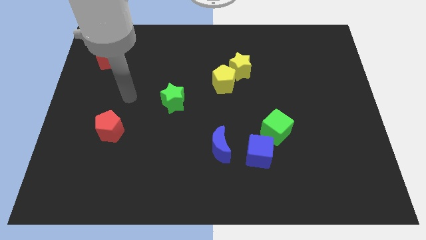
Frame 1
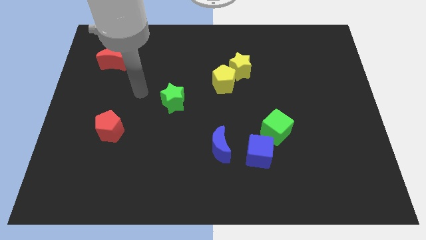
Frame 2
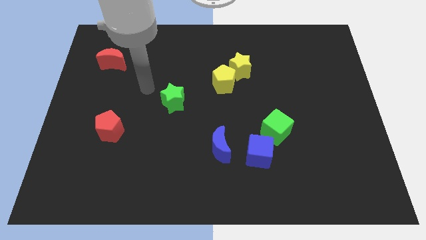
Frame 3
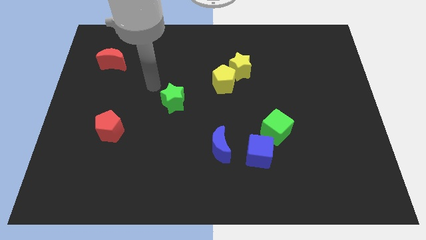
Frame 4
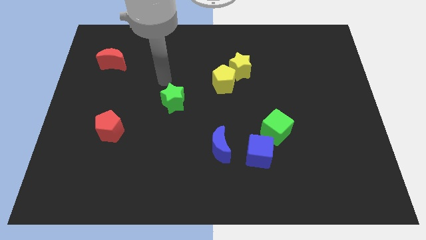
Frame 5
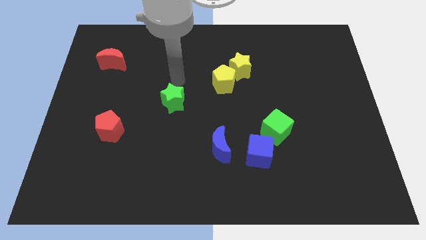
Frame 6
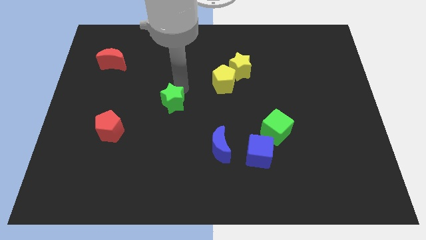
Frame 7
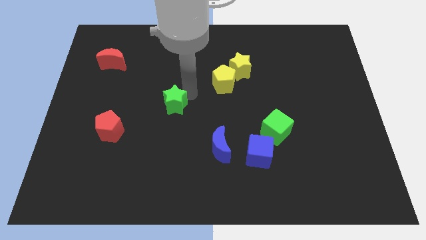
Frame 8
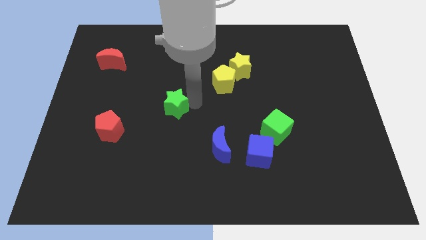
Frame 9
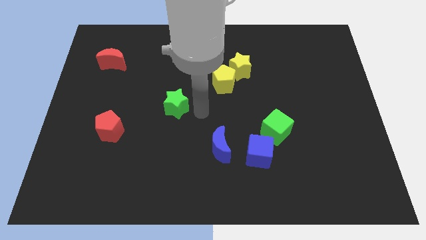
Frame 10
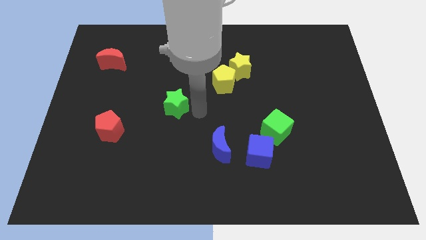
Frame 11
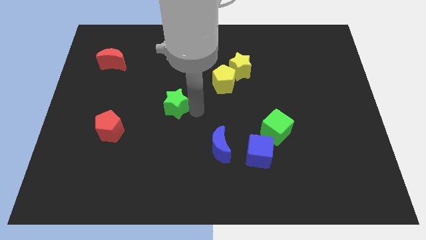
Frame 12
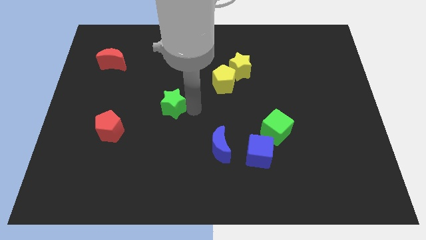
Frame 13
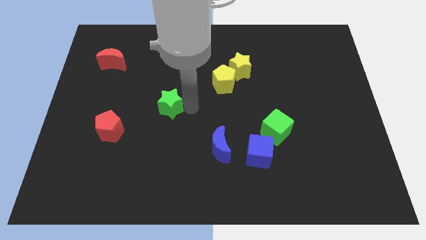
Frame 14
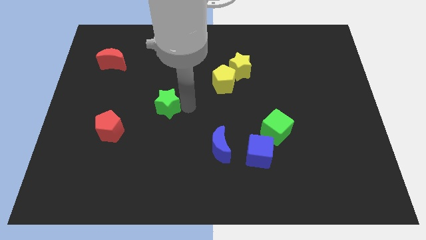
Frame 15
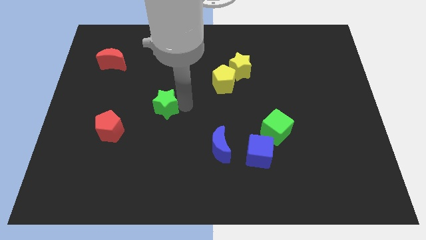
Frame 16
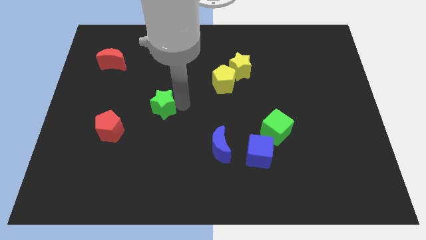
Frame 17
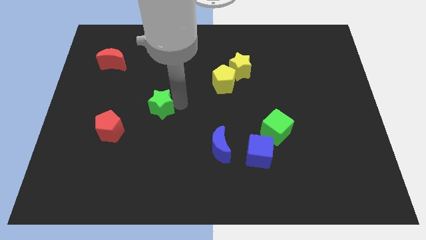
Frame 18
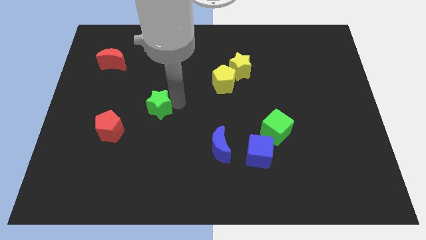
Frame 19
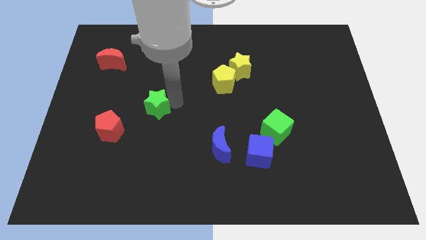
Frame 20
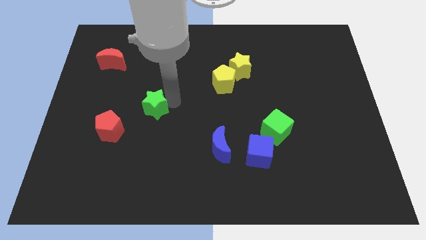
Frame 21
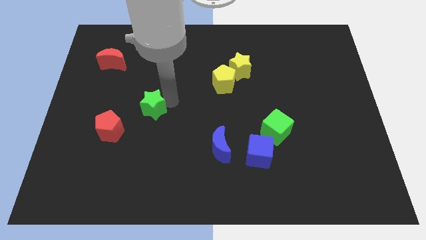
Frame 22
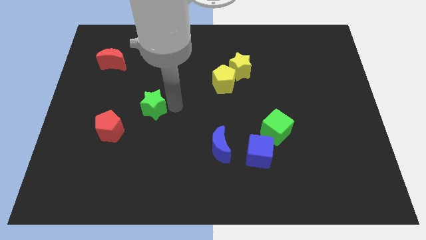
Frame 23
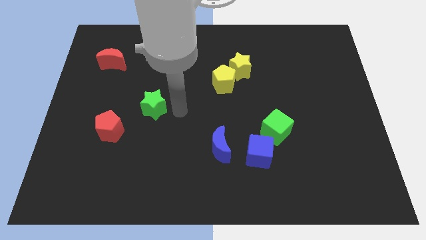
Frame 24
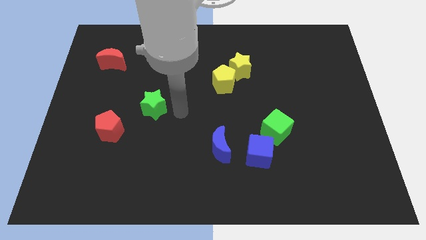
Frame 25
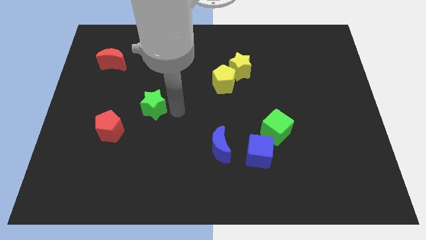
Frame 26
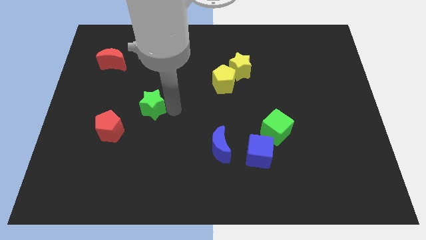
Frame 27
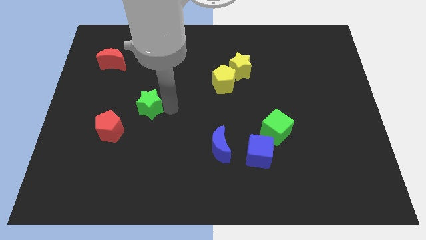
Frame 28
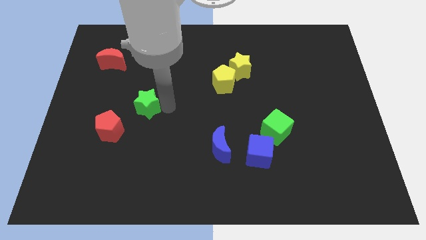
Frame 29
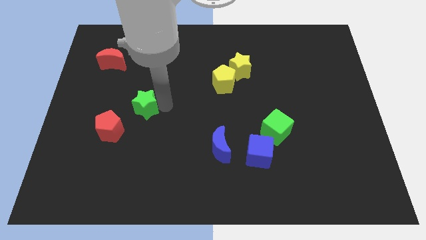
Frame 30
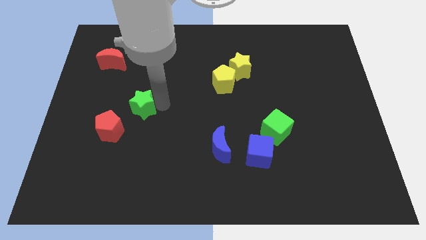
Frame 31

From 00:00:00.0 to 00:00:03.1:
slide the green star left a bit

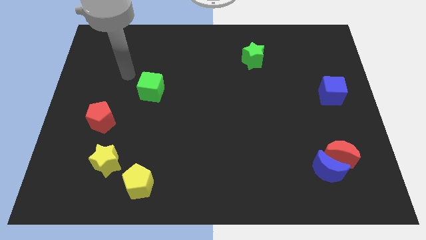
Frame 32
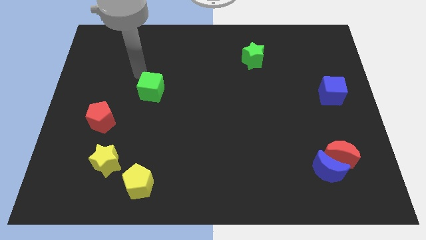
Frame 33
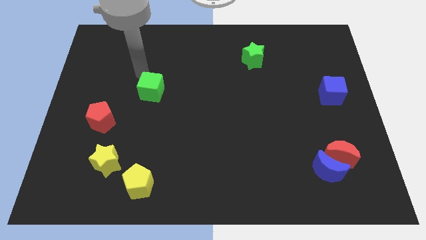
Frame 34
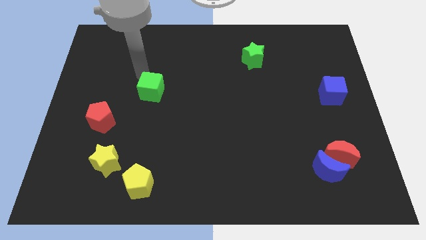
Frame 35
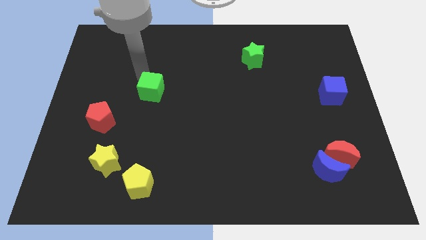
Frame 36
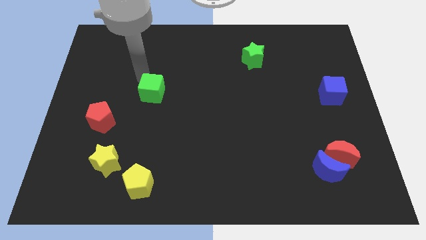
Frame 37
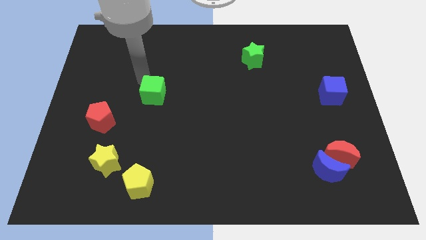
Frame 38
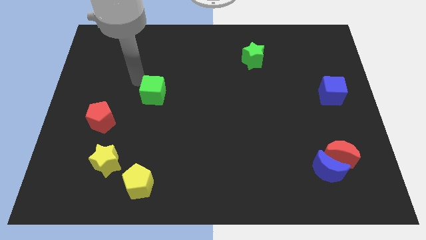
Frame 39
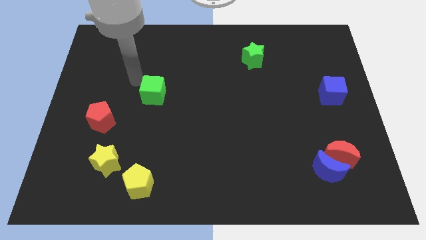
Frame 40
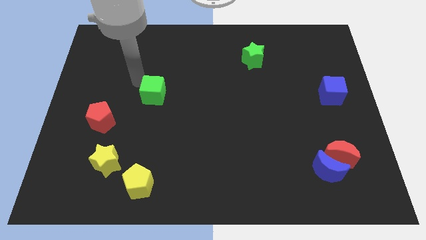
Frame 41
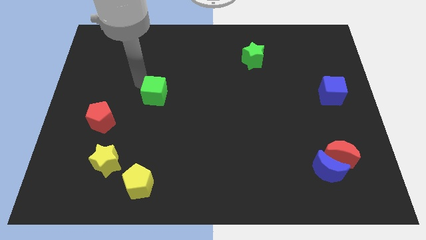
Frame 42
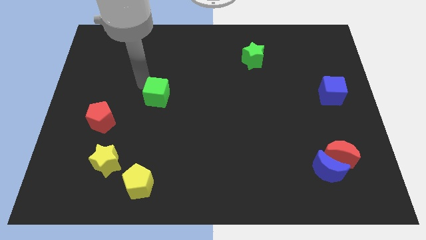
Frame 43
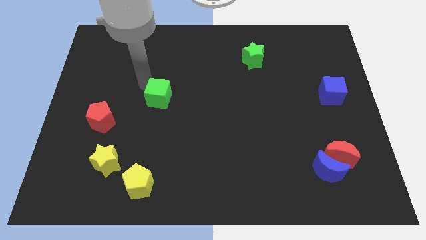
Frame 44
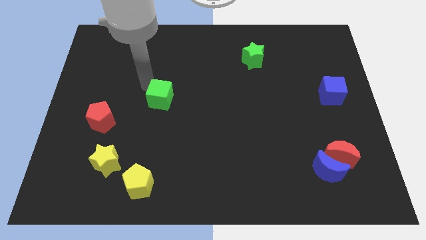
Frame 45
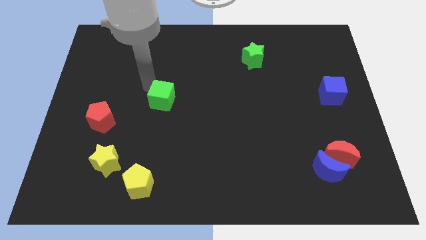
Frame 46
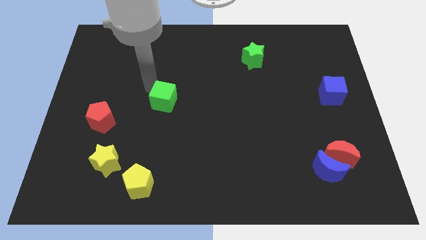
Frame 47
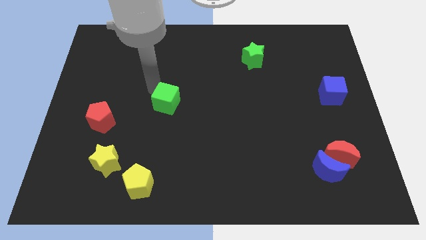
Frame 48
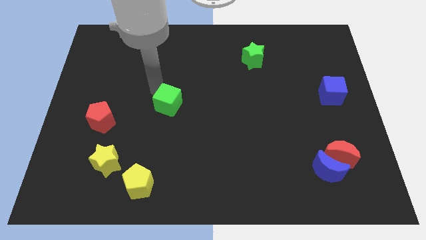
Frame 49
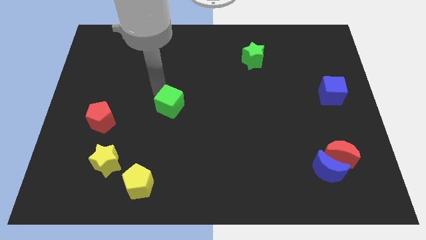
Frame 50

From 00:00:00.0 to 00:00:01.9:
slightly slide the green cube diagonally down and to the right

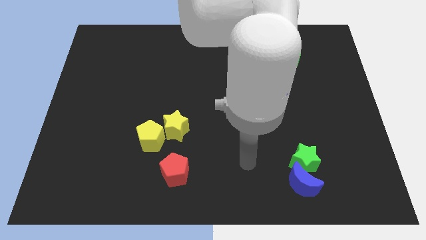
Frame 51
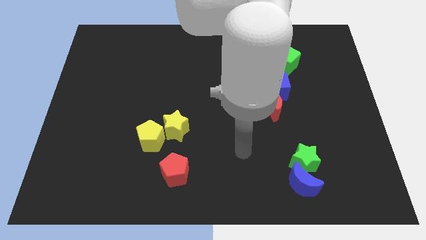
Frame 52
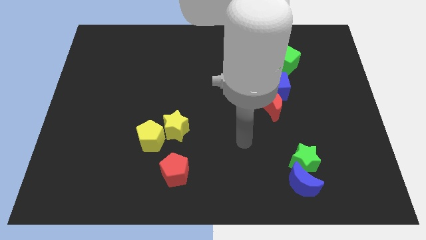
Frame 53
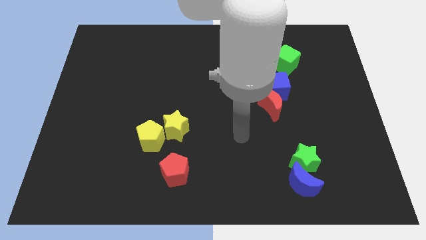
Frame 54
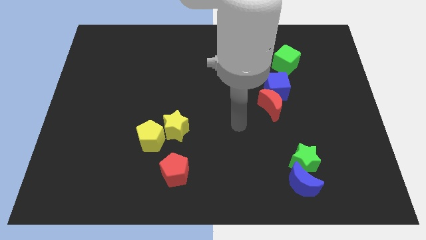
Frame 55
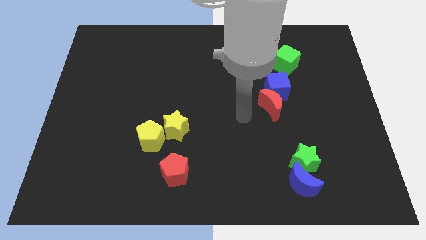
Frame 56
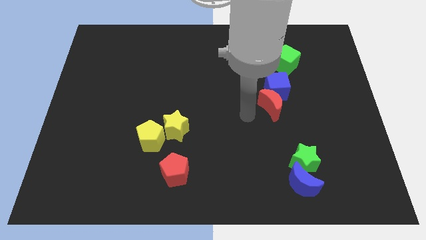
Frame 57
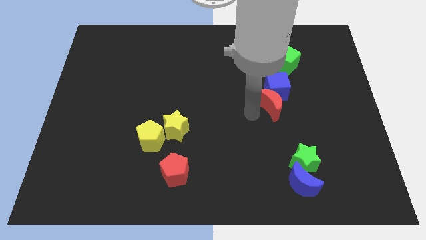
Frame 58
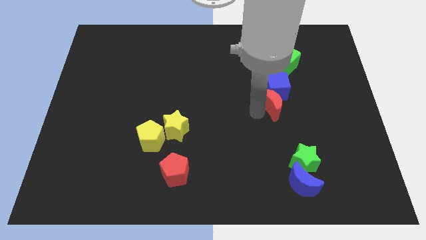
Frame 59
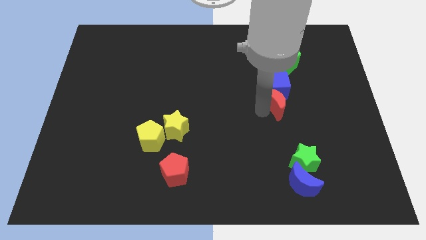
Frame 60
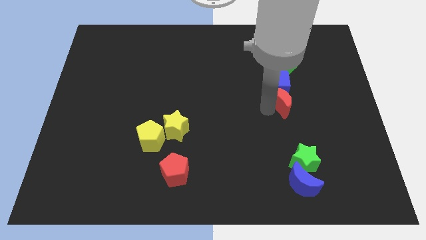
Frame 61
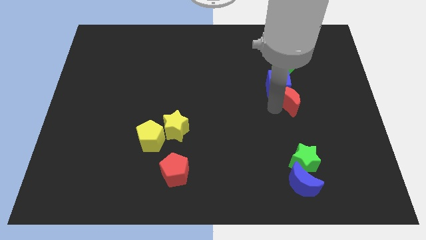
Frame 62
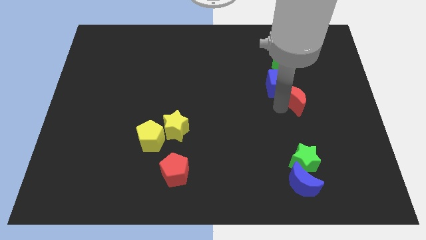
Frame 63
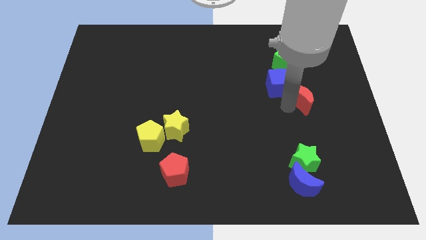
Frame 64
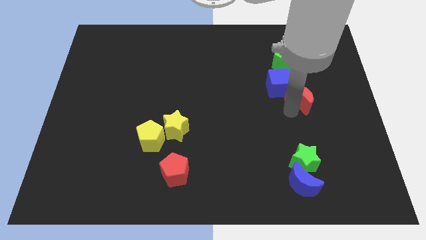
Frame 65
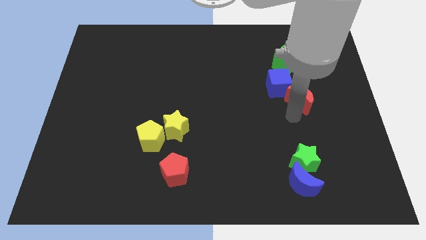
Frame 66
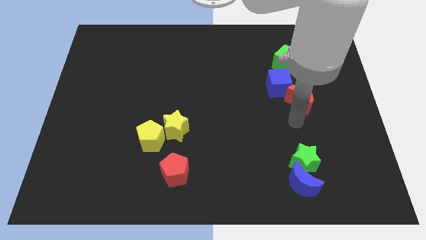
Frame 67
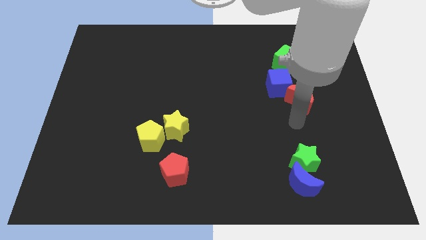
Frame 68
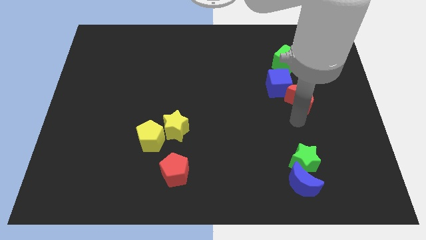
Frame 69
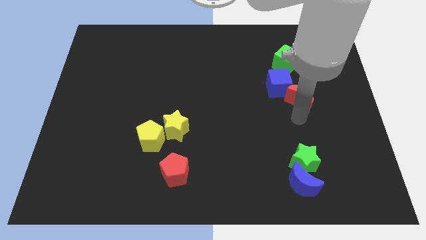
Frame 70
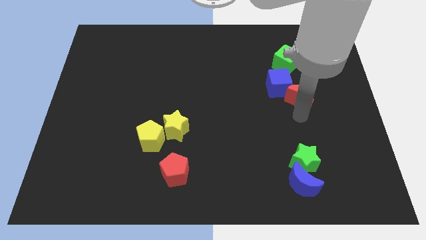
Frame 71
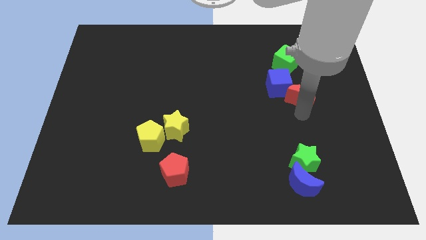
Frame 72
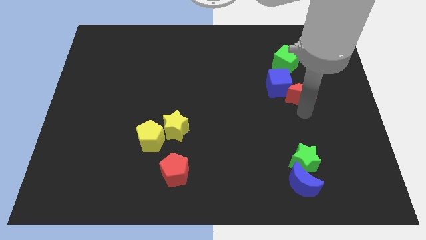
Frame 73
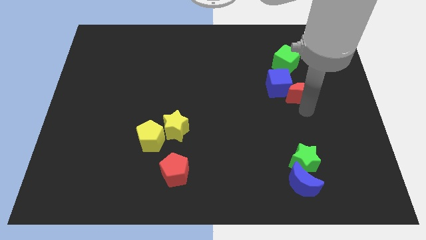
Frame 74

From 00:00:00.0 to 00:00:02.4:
slightly move the red moon up and then right

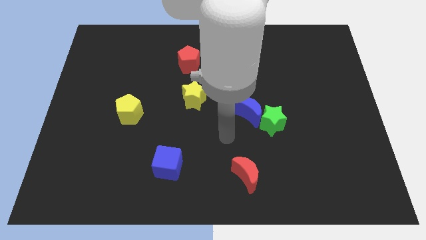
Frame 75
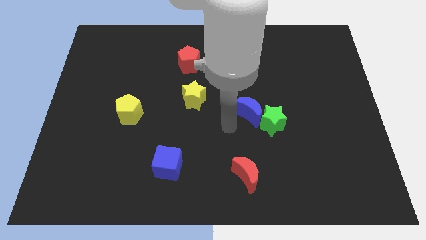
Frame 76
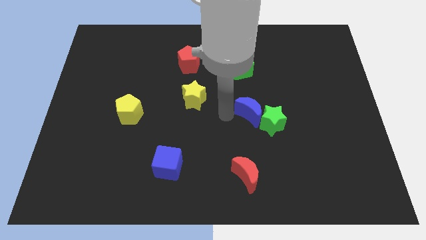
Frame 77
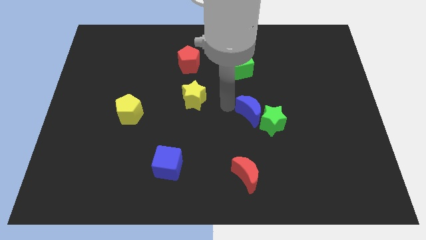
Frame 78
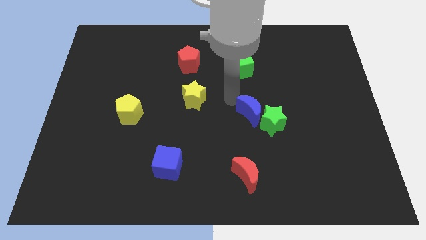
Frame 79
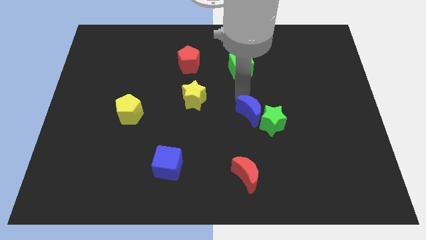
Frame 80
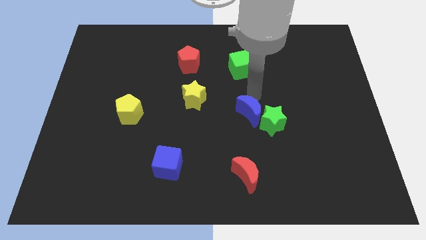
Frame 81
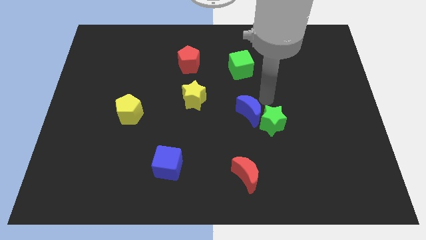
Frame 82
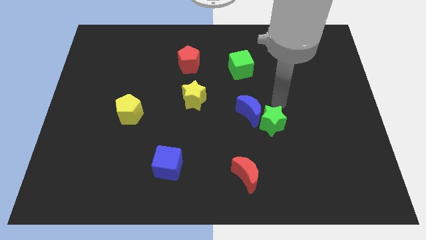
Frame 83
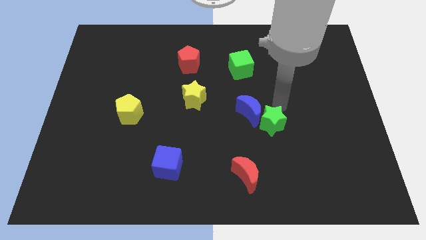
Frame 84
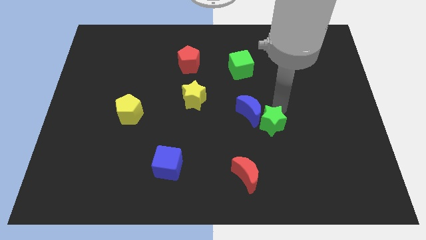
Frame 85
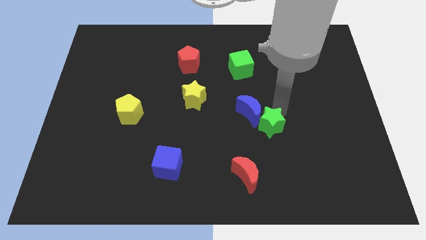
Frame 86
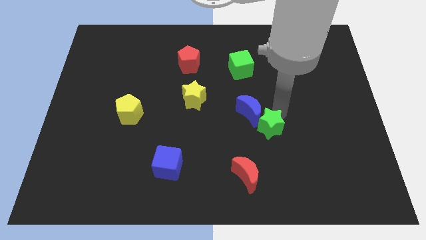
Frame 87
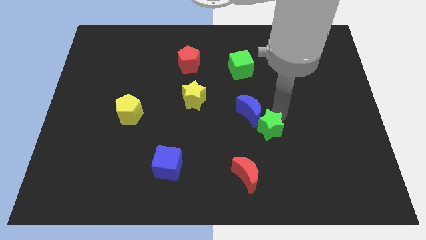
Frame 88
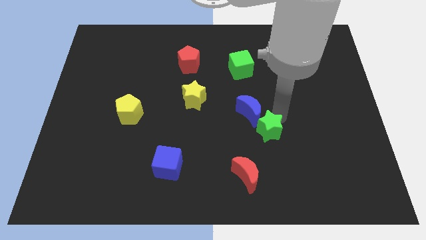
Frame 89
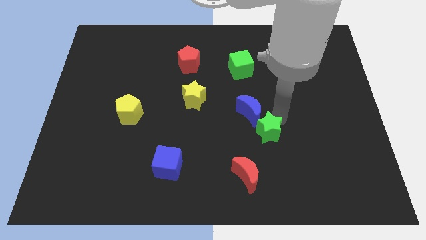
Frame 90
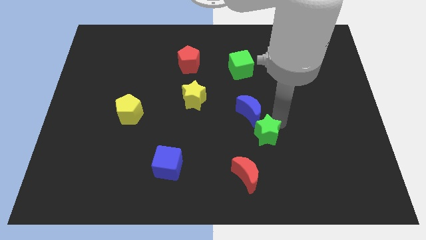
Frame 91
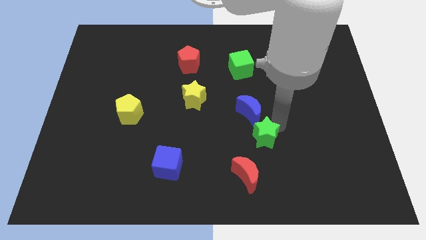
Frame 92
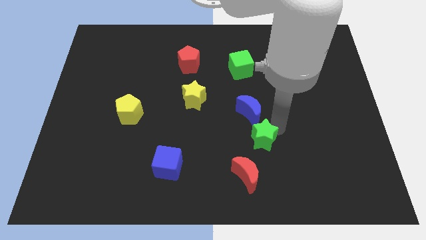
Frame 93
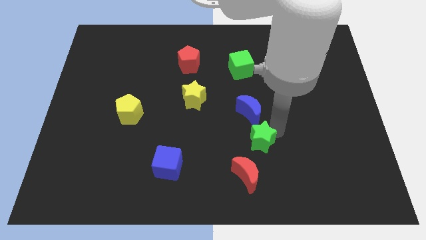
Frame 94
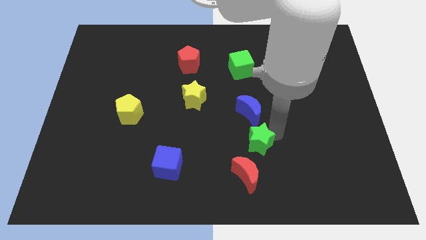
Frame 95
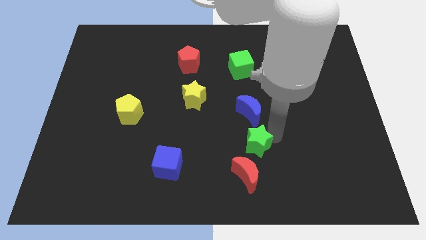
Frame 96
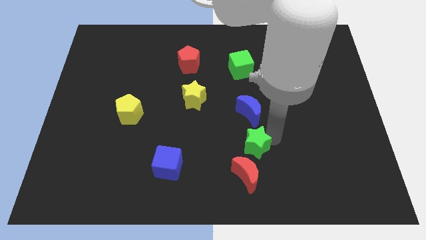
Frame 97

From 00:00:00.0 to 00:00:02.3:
slightly push the green star down and then to the left
